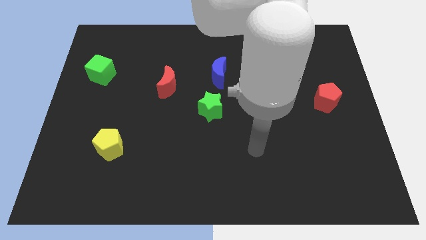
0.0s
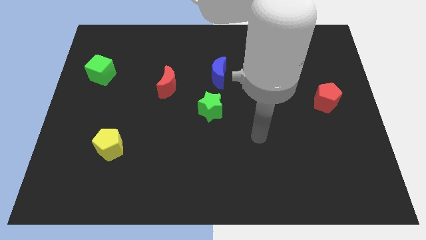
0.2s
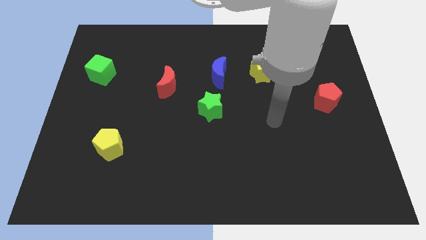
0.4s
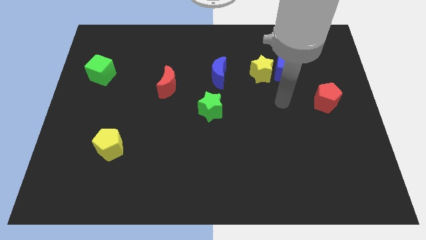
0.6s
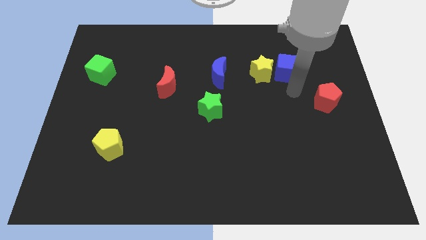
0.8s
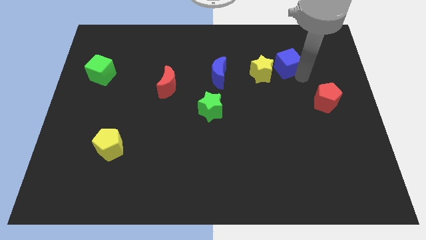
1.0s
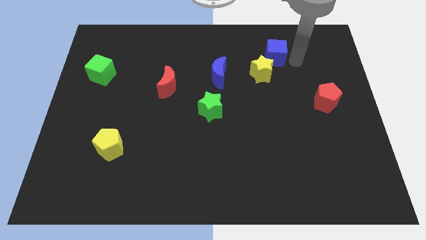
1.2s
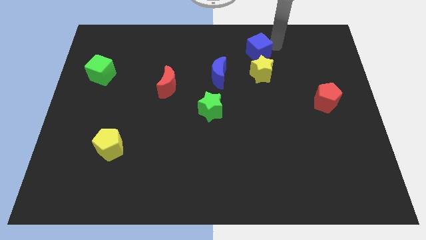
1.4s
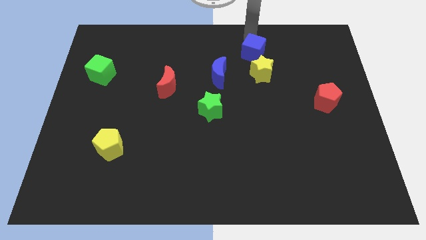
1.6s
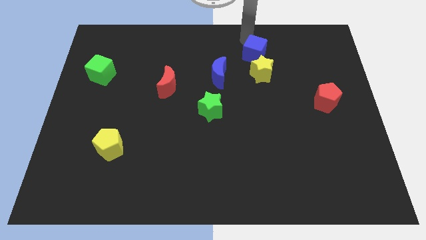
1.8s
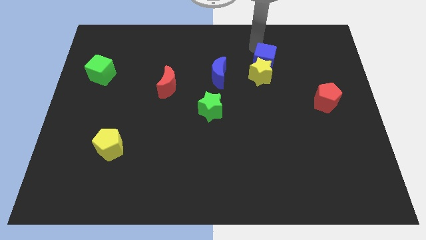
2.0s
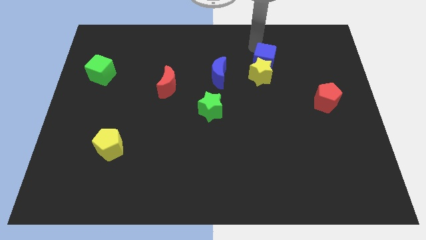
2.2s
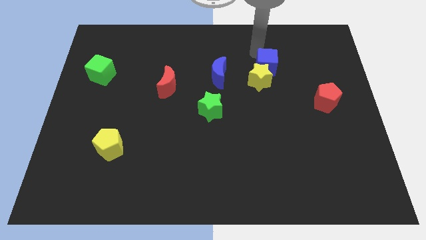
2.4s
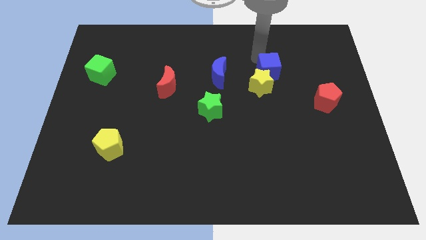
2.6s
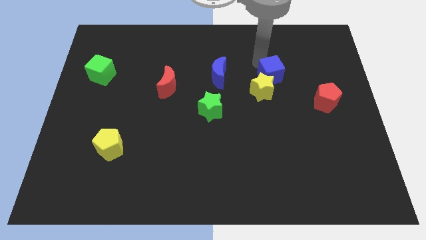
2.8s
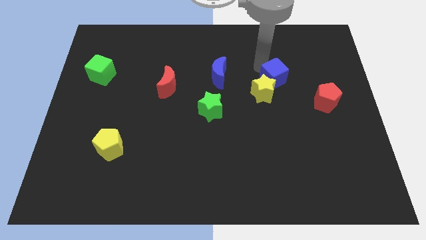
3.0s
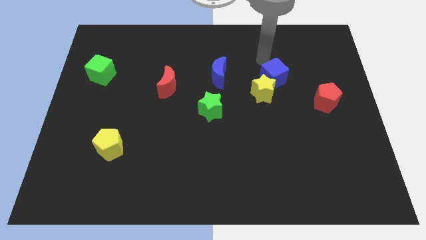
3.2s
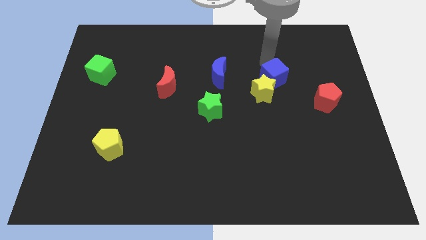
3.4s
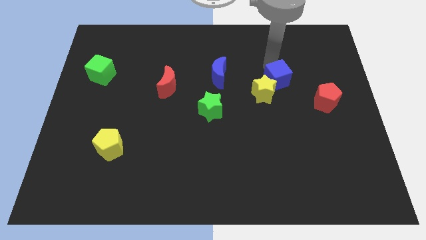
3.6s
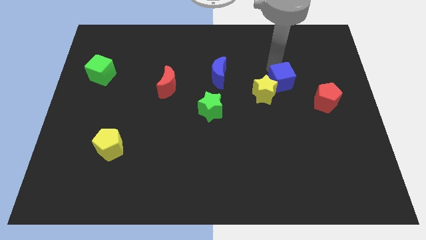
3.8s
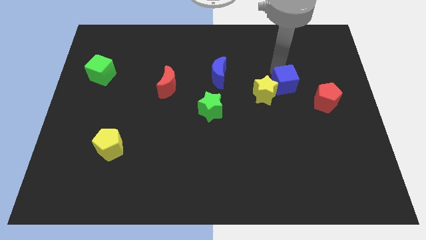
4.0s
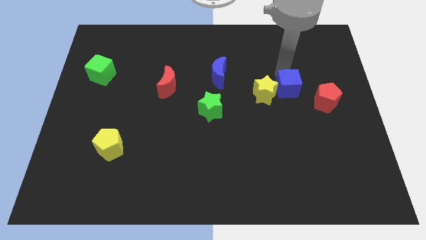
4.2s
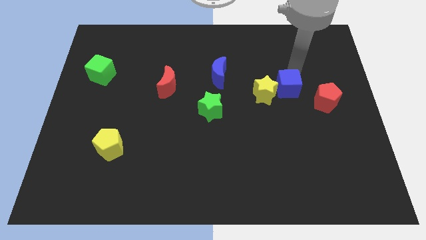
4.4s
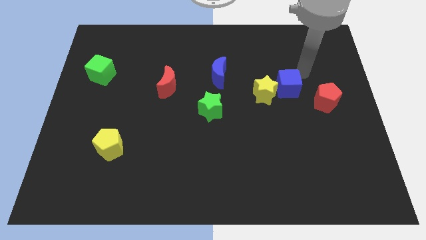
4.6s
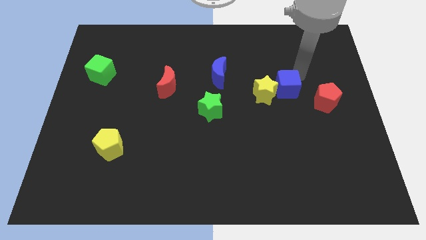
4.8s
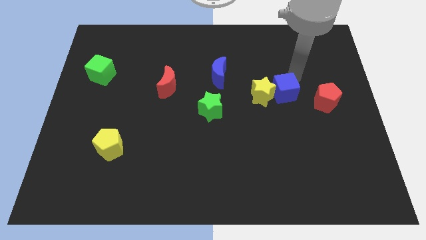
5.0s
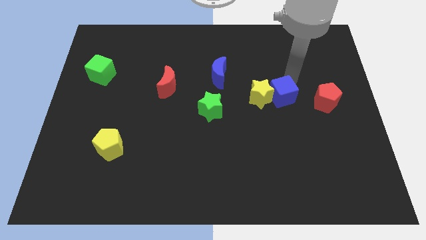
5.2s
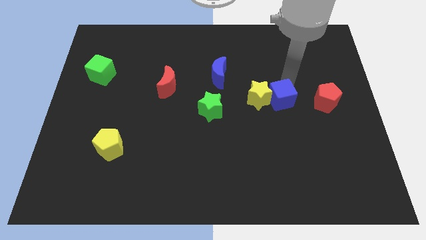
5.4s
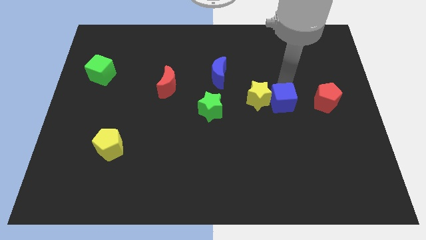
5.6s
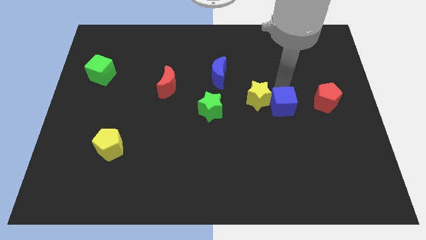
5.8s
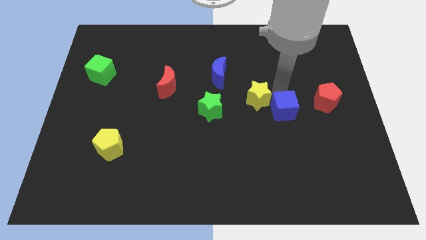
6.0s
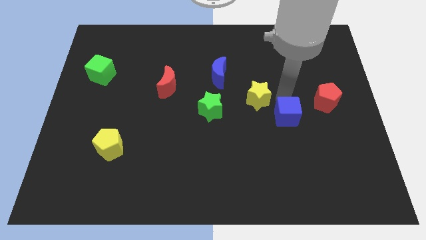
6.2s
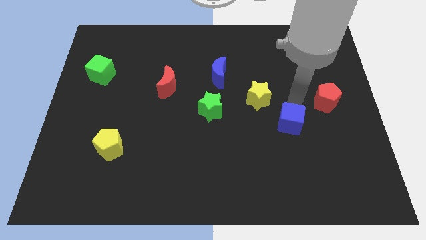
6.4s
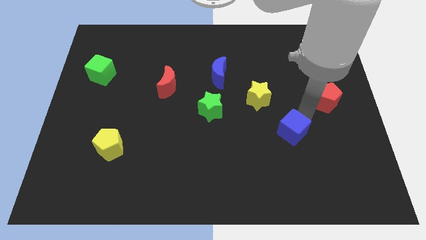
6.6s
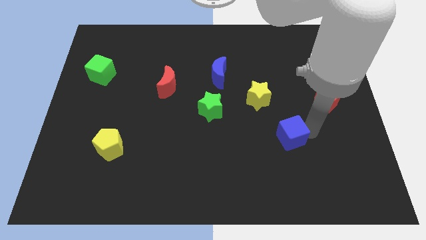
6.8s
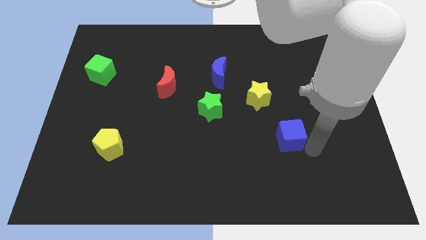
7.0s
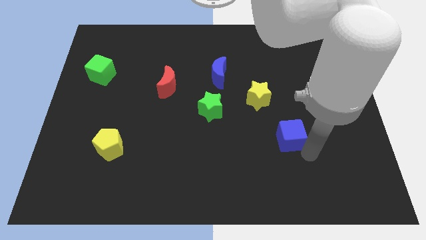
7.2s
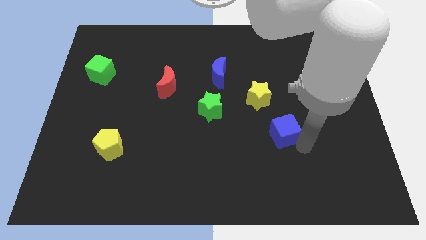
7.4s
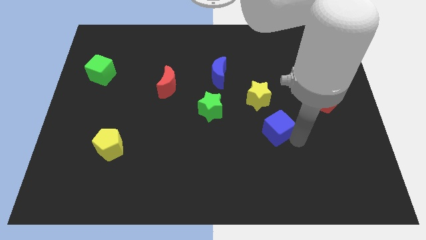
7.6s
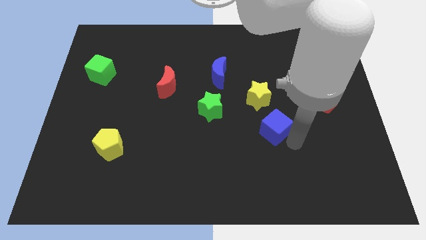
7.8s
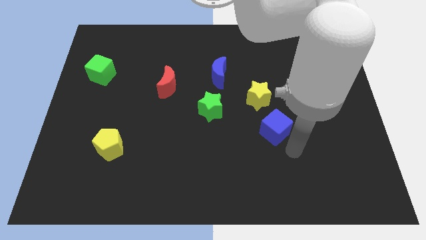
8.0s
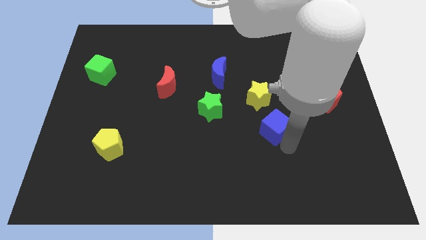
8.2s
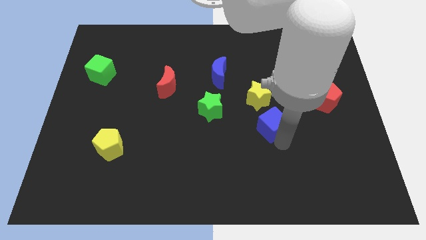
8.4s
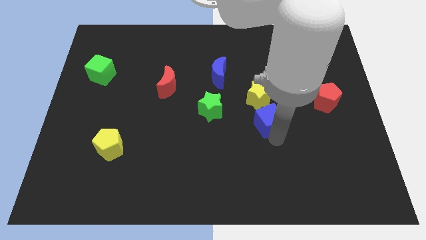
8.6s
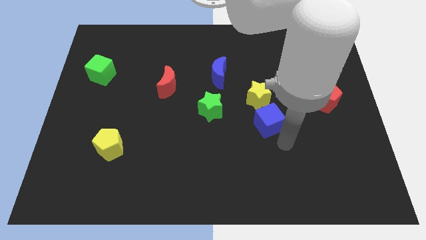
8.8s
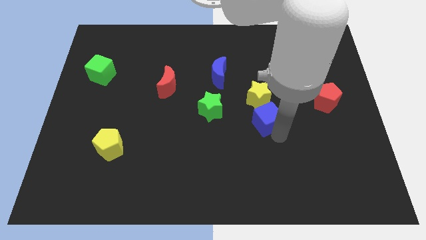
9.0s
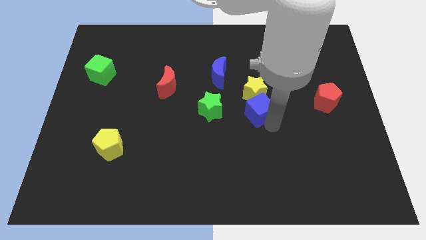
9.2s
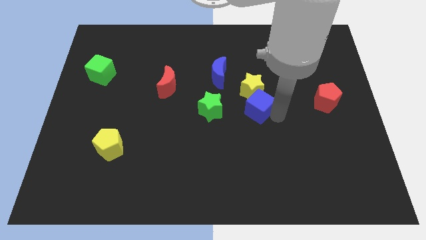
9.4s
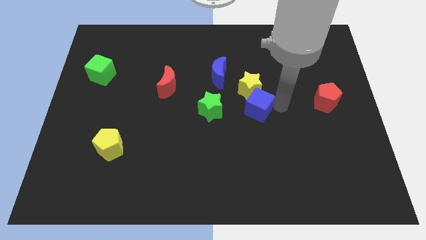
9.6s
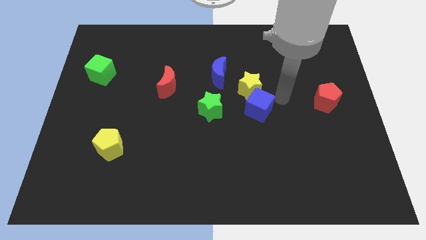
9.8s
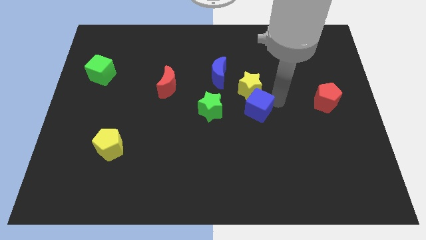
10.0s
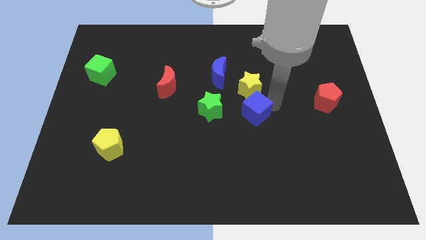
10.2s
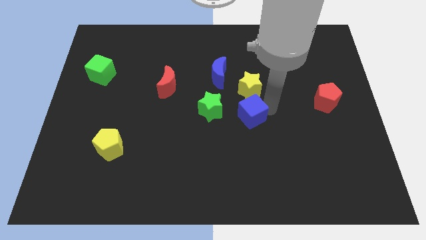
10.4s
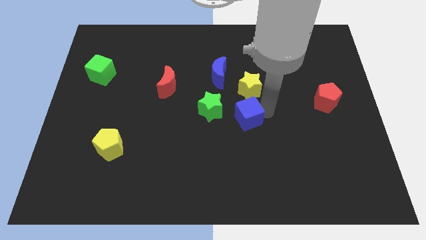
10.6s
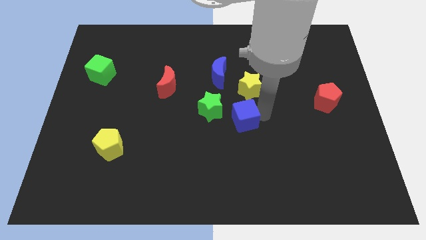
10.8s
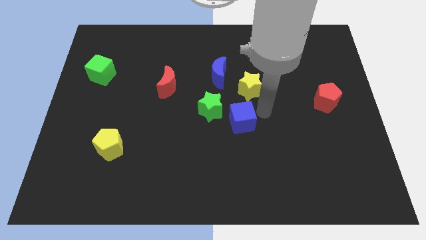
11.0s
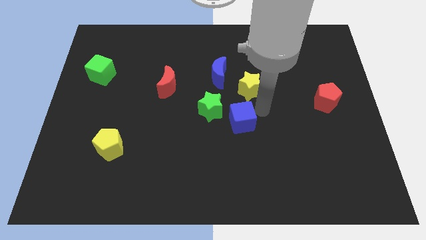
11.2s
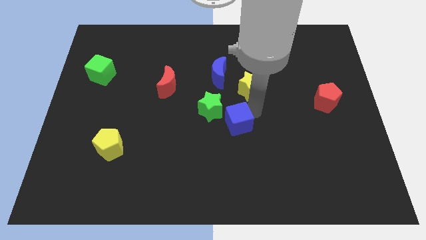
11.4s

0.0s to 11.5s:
push the blue cube downwards and to the left

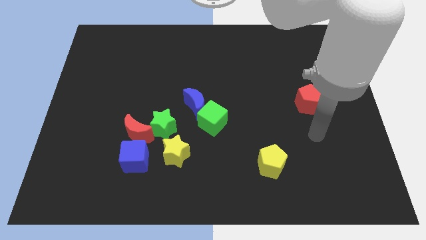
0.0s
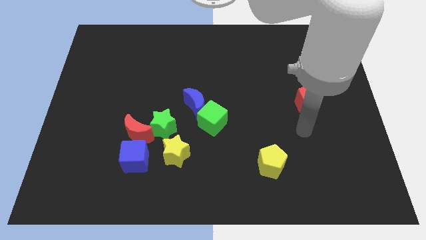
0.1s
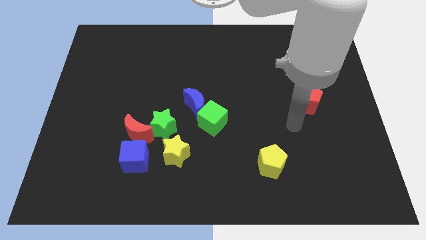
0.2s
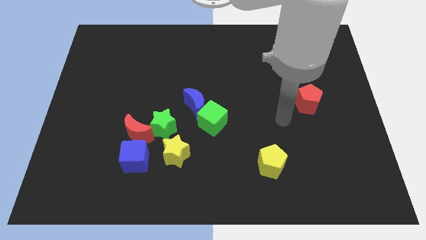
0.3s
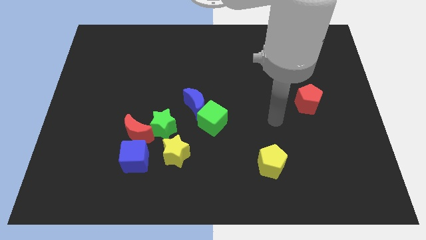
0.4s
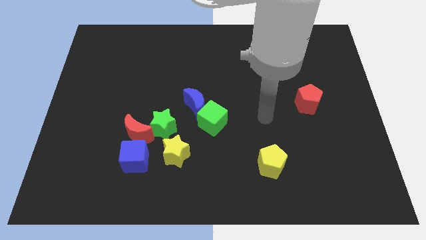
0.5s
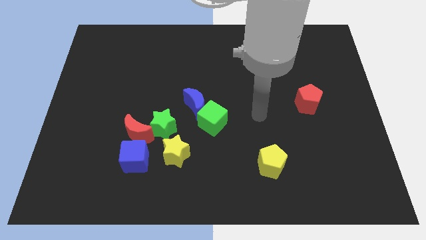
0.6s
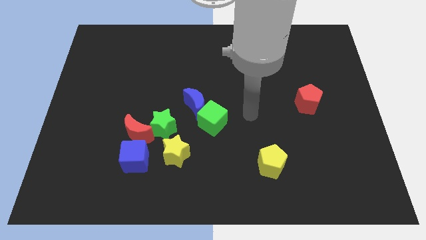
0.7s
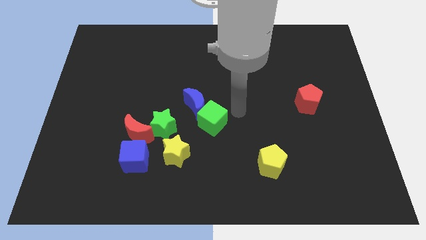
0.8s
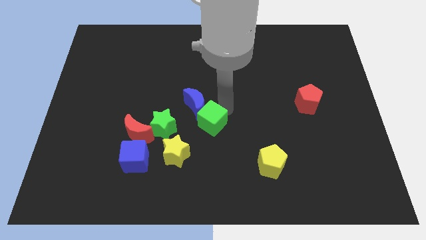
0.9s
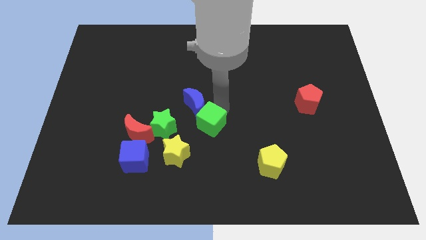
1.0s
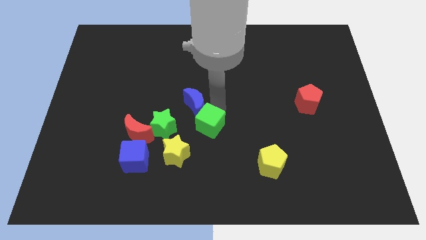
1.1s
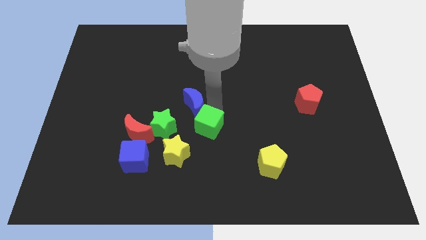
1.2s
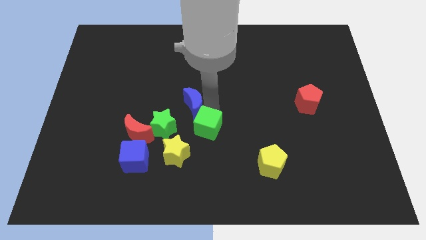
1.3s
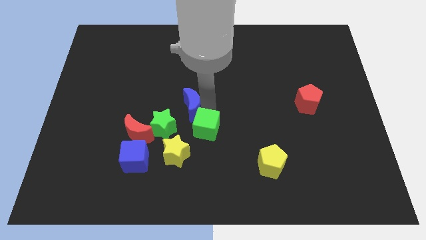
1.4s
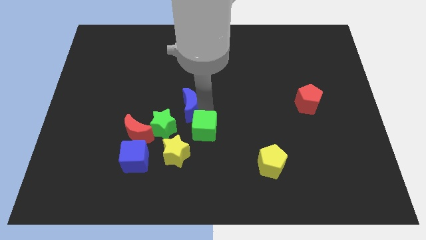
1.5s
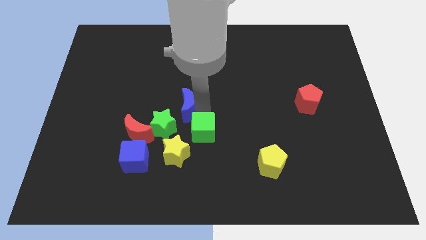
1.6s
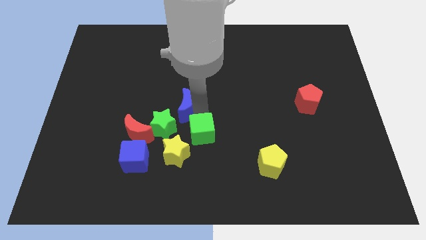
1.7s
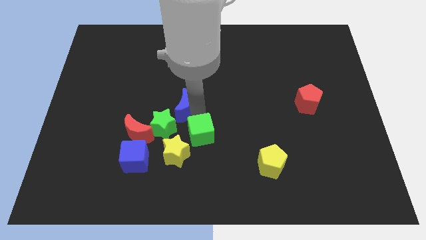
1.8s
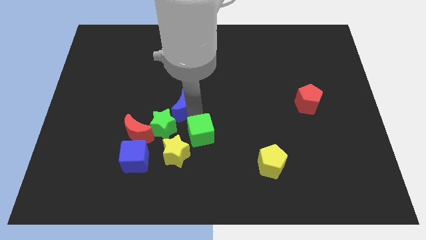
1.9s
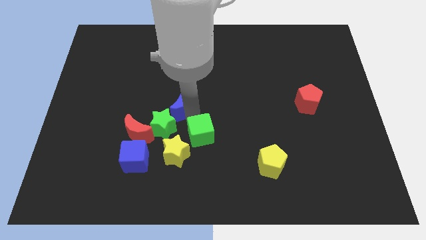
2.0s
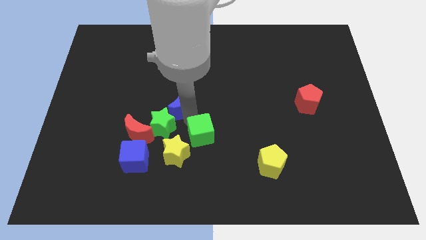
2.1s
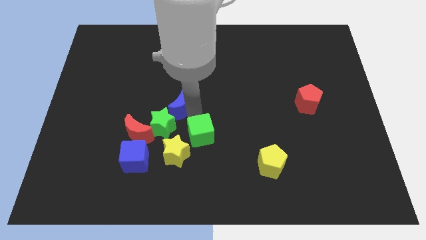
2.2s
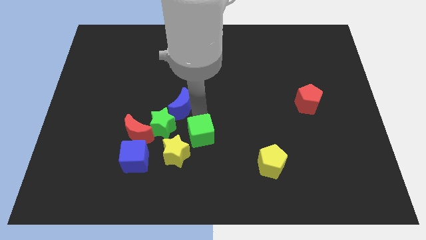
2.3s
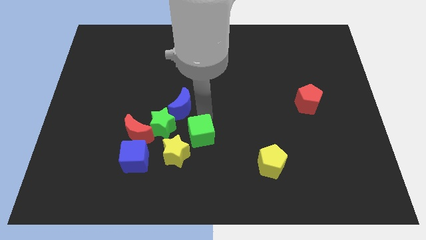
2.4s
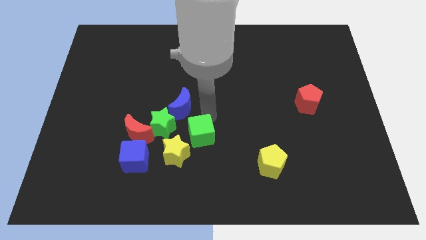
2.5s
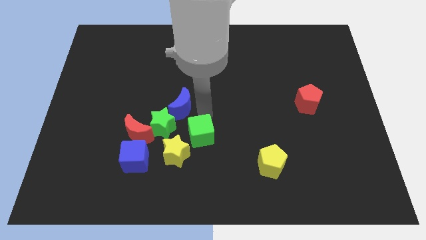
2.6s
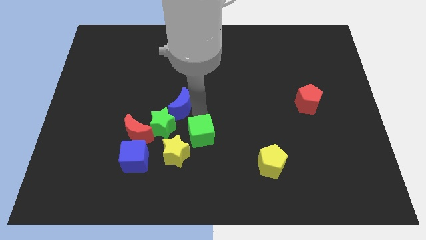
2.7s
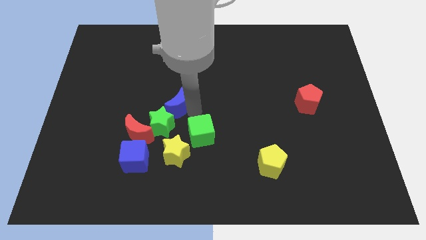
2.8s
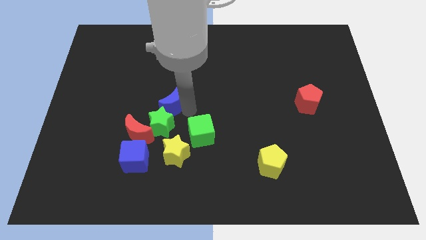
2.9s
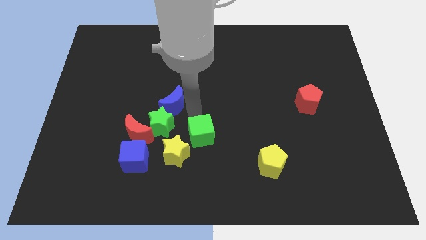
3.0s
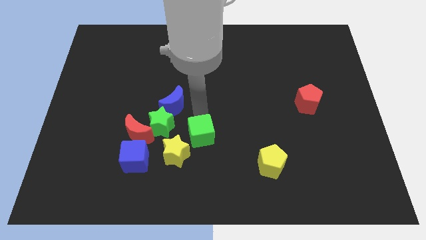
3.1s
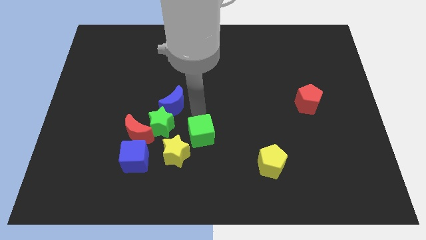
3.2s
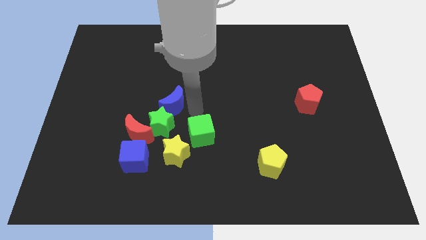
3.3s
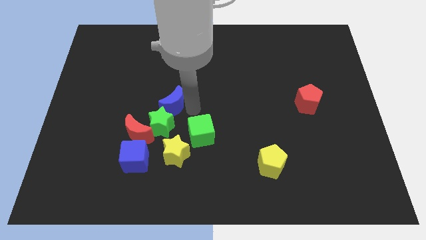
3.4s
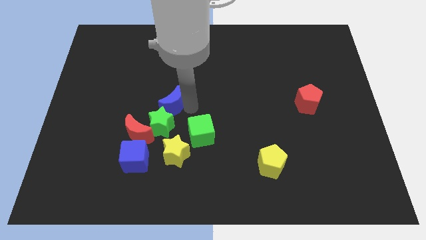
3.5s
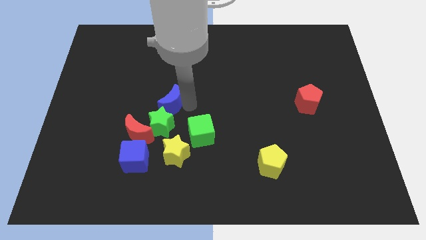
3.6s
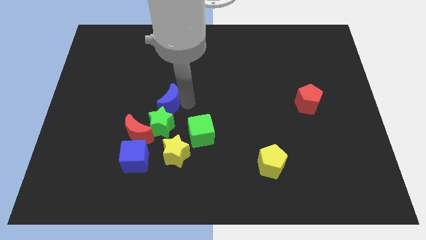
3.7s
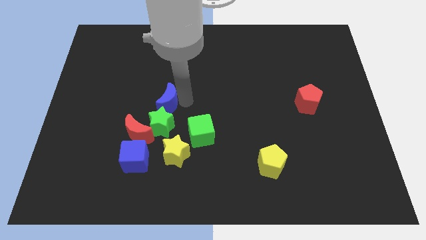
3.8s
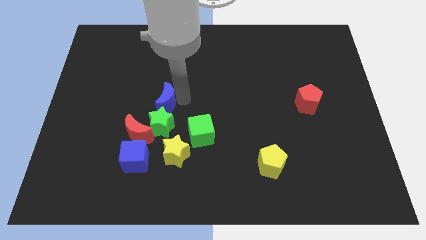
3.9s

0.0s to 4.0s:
slightly push the blue moon left
